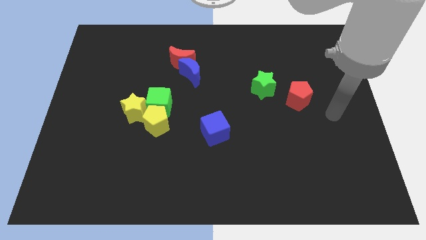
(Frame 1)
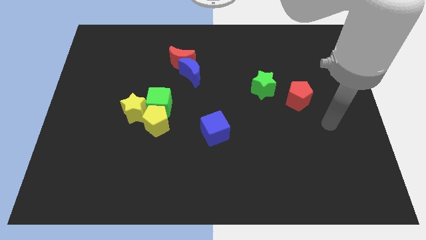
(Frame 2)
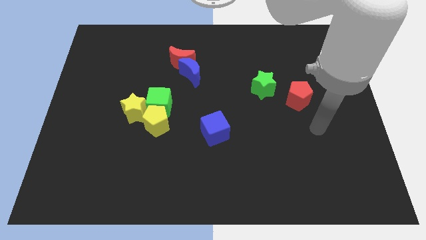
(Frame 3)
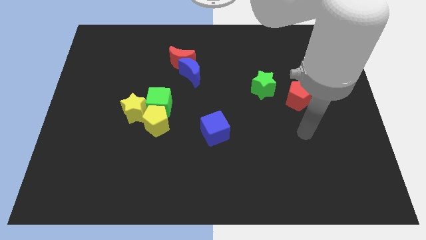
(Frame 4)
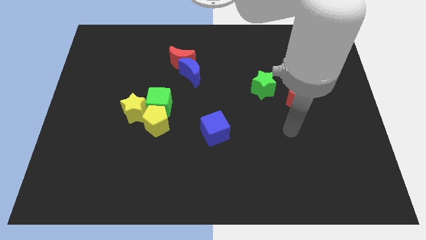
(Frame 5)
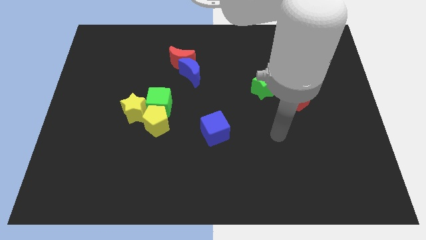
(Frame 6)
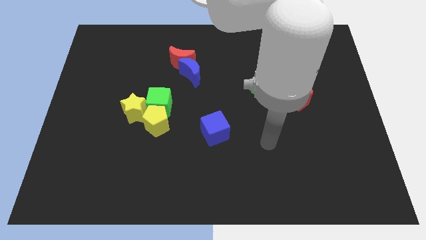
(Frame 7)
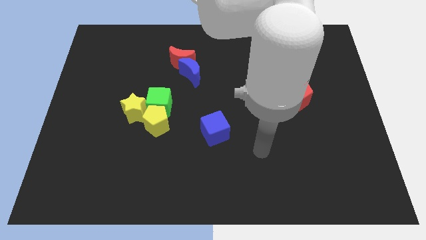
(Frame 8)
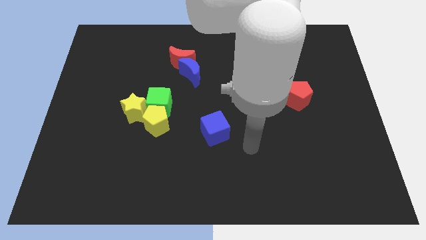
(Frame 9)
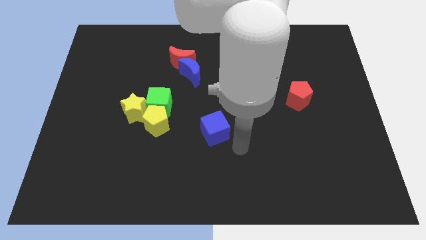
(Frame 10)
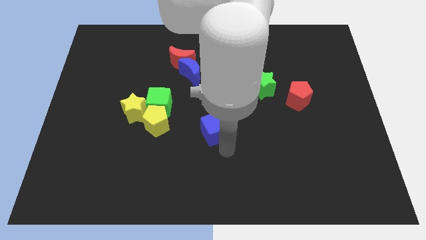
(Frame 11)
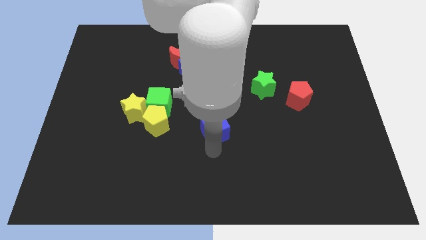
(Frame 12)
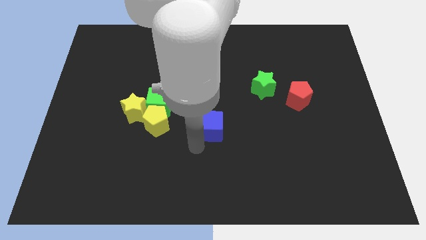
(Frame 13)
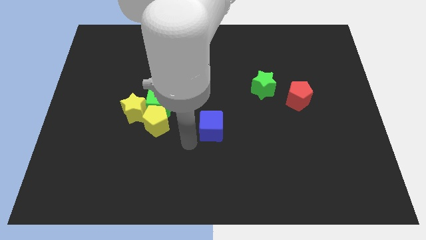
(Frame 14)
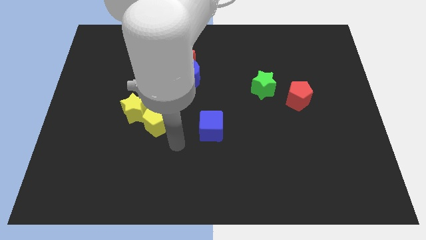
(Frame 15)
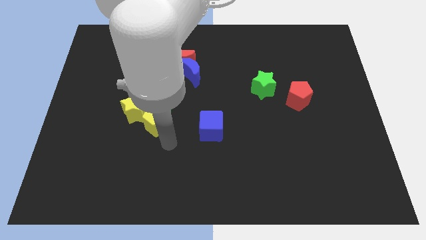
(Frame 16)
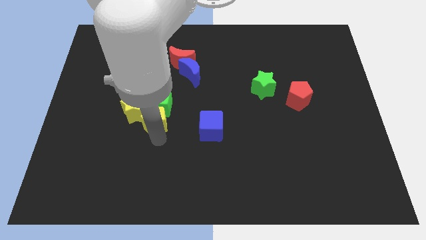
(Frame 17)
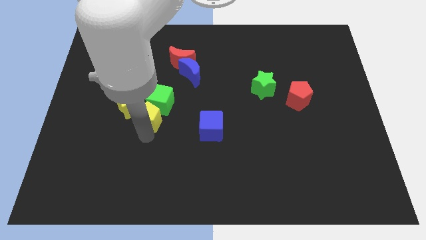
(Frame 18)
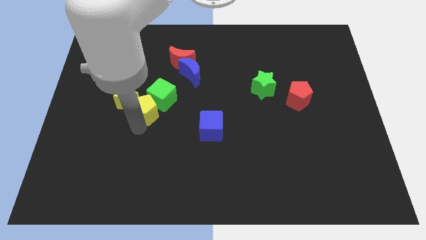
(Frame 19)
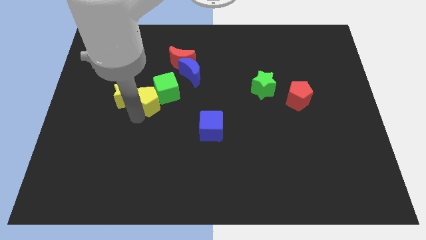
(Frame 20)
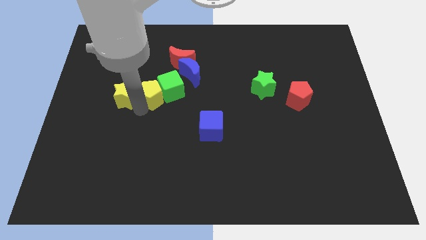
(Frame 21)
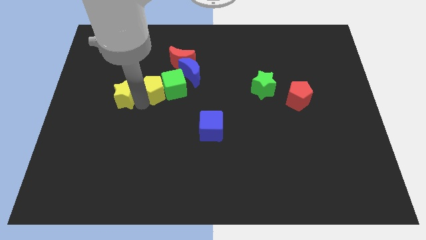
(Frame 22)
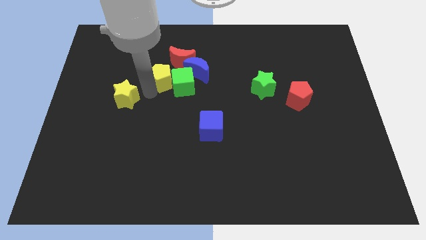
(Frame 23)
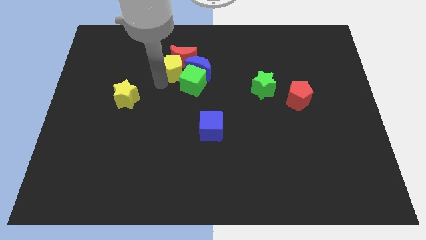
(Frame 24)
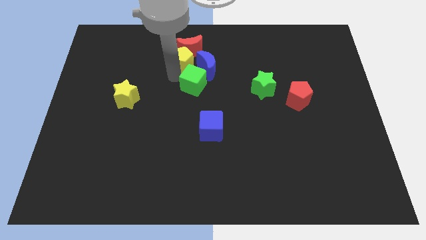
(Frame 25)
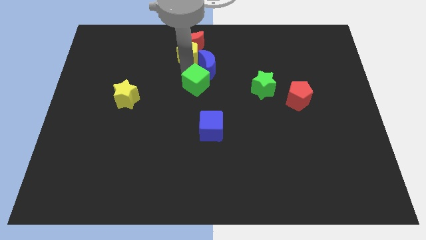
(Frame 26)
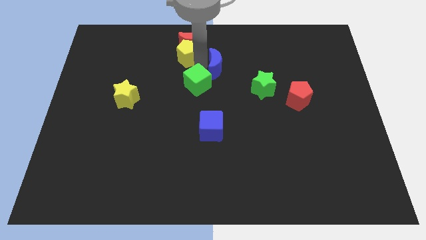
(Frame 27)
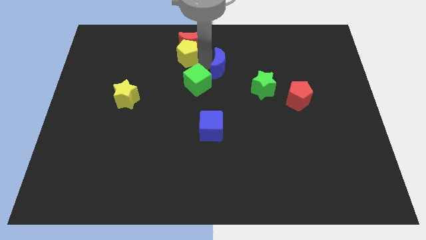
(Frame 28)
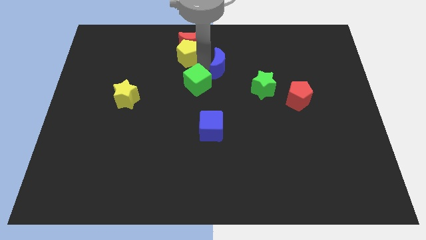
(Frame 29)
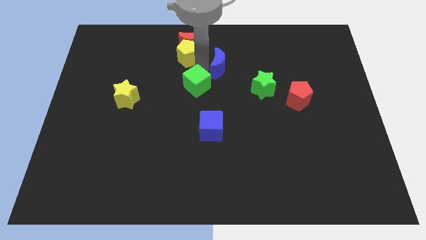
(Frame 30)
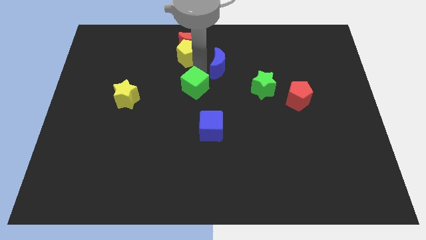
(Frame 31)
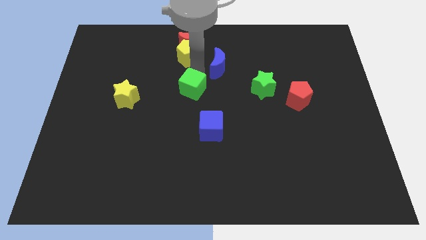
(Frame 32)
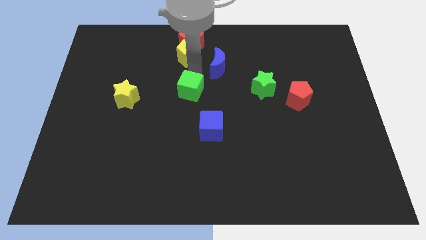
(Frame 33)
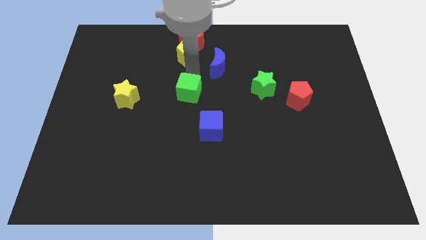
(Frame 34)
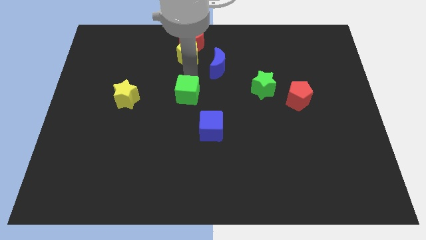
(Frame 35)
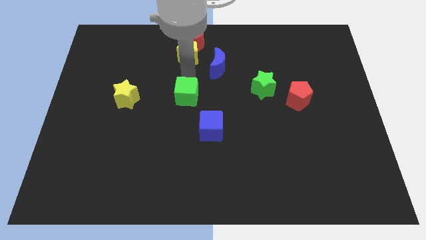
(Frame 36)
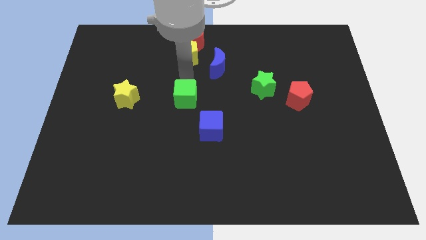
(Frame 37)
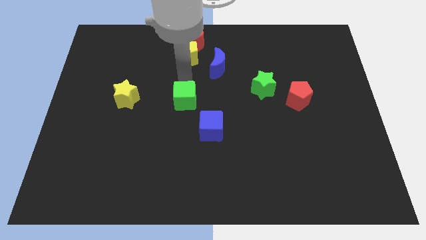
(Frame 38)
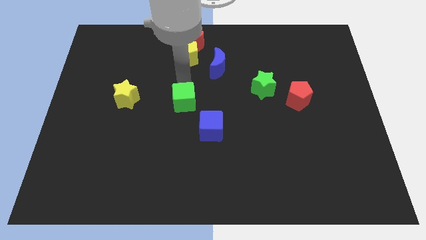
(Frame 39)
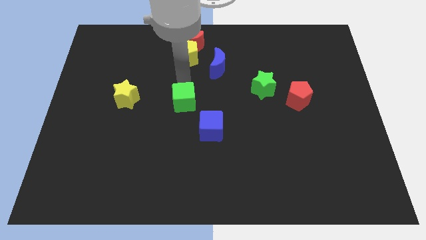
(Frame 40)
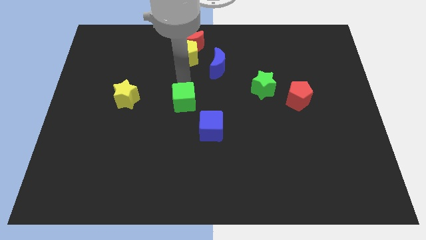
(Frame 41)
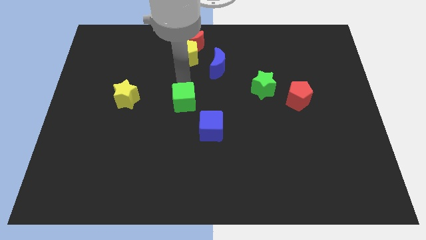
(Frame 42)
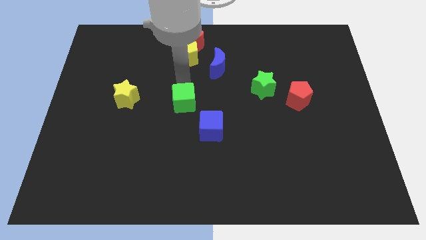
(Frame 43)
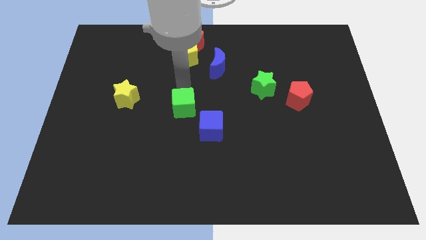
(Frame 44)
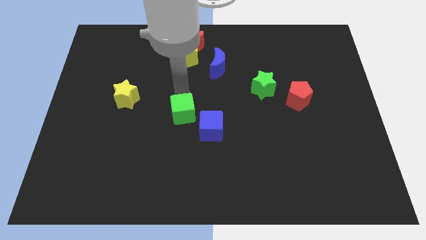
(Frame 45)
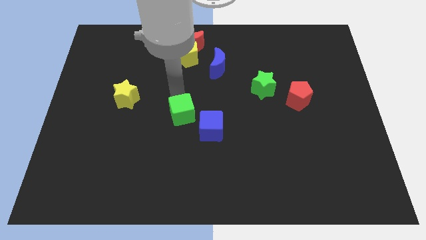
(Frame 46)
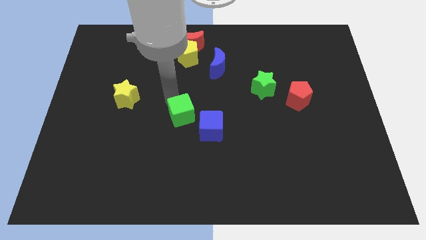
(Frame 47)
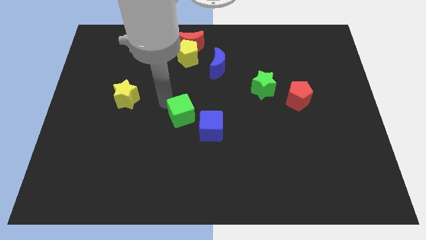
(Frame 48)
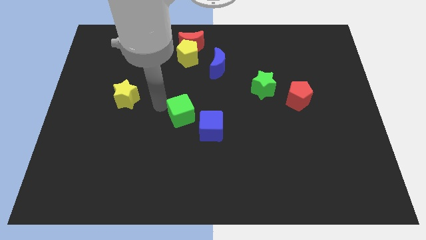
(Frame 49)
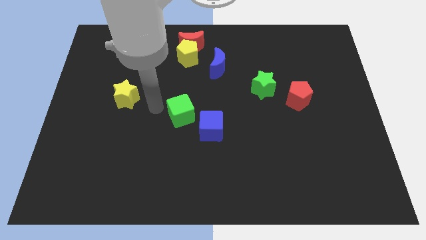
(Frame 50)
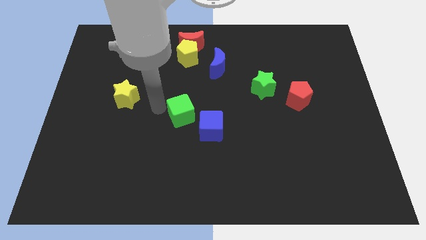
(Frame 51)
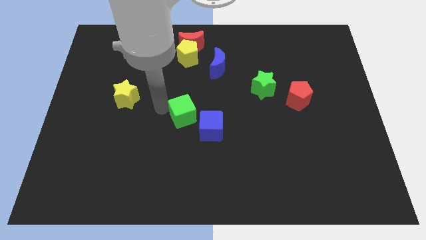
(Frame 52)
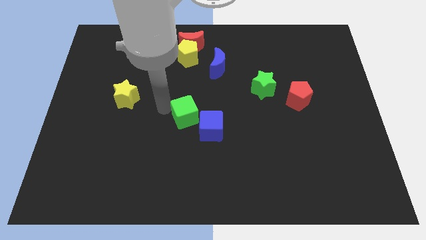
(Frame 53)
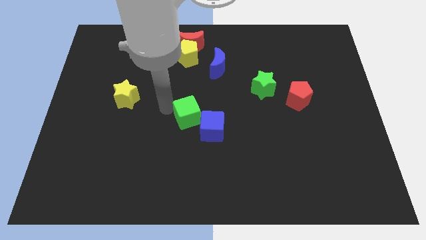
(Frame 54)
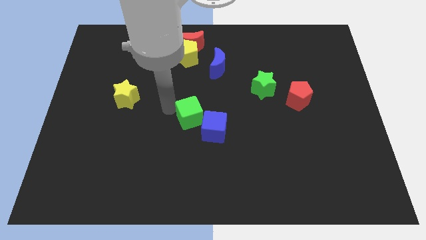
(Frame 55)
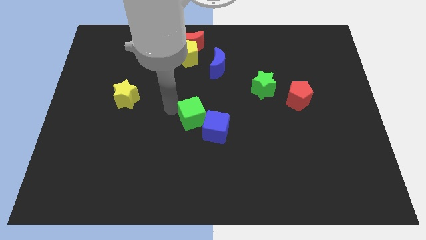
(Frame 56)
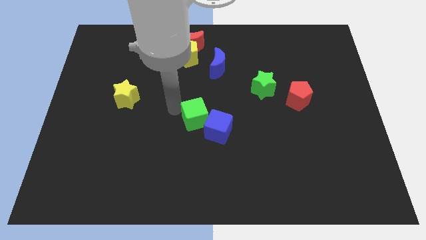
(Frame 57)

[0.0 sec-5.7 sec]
move the green cube next to the blue cube
